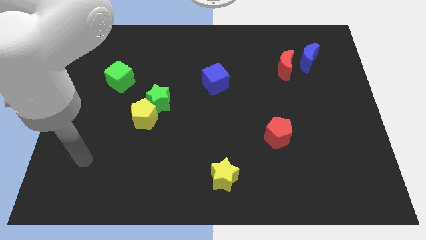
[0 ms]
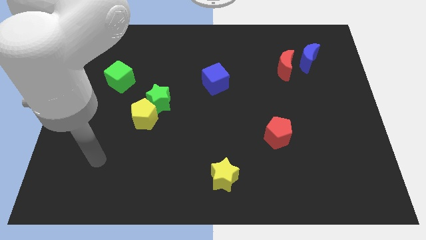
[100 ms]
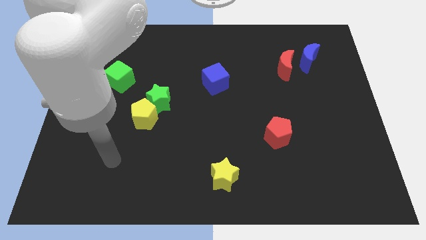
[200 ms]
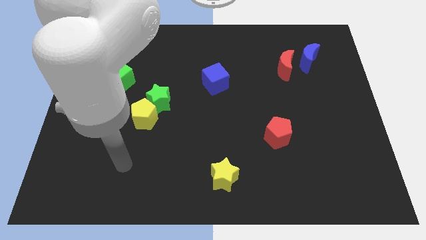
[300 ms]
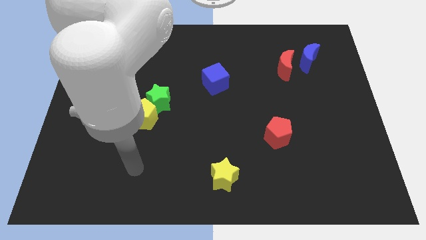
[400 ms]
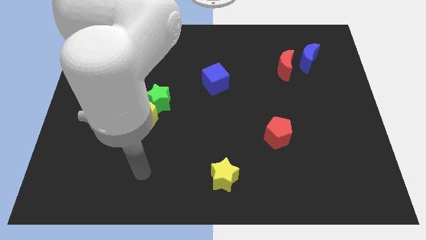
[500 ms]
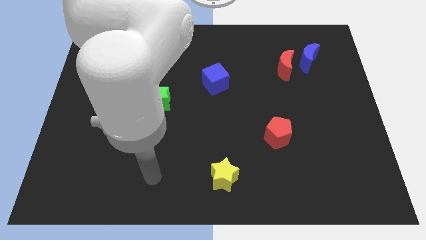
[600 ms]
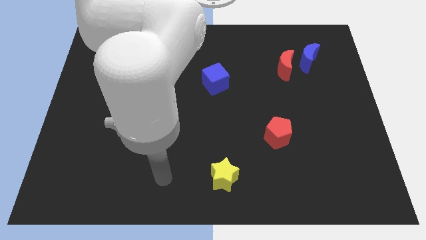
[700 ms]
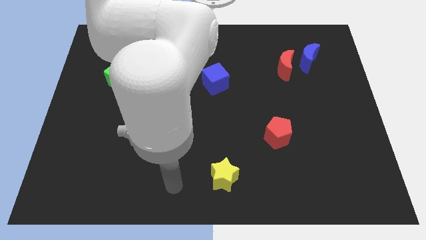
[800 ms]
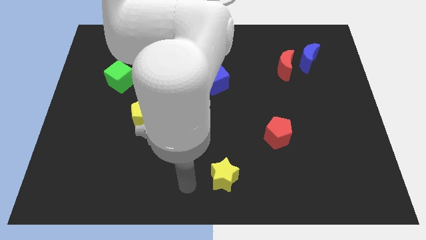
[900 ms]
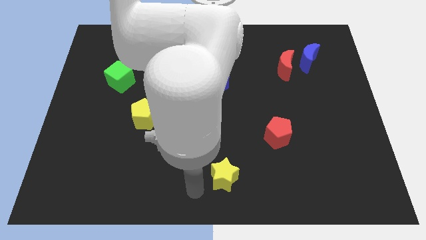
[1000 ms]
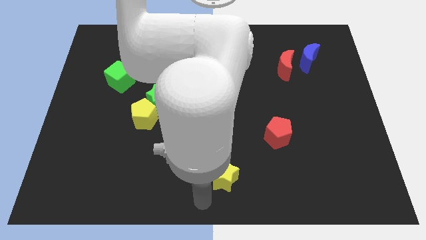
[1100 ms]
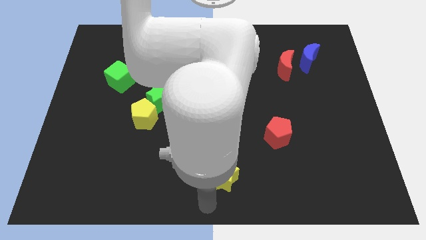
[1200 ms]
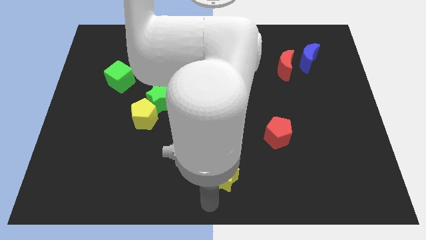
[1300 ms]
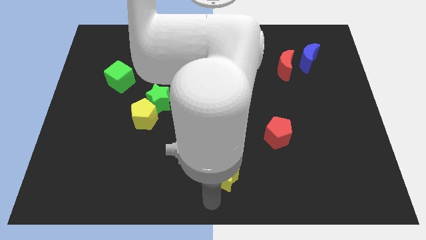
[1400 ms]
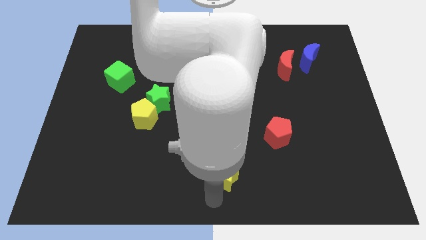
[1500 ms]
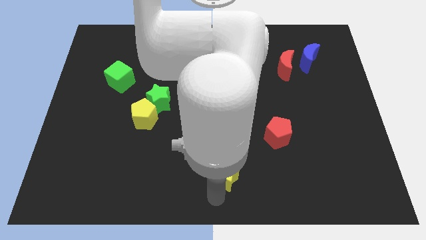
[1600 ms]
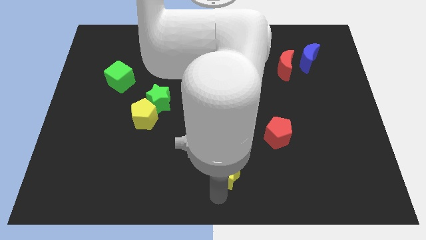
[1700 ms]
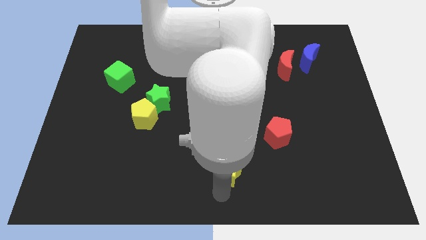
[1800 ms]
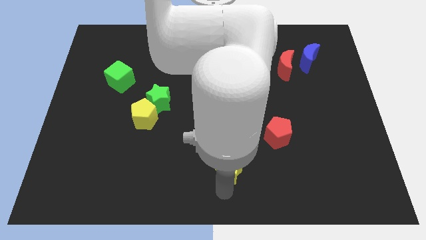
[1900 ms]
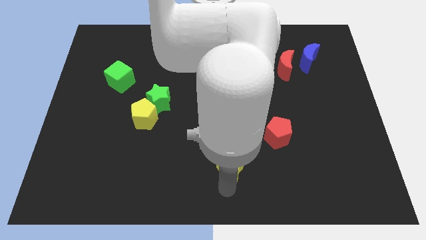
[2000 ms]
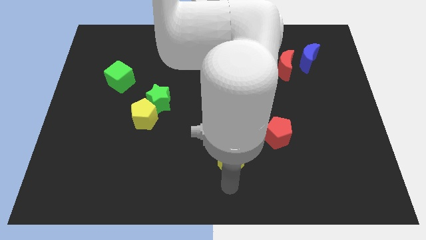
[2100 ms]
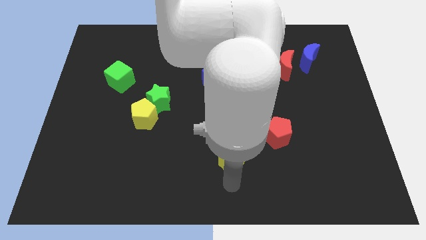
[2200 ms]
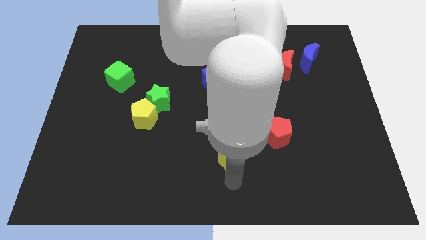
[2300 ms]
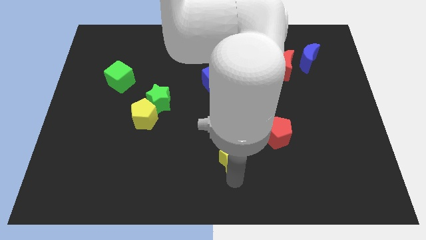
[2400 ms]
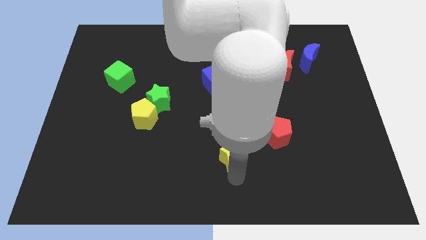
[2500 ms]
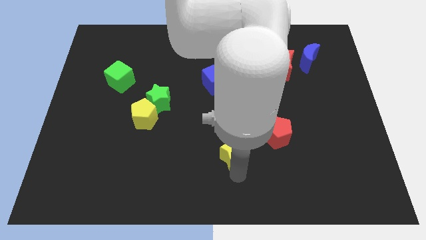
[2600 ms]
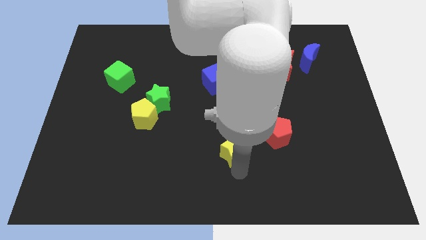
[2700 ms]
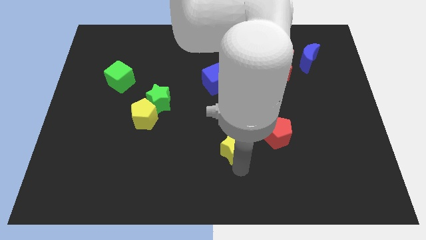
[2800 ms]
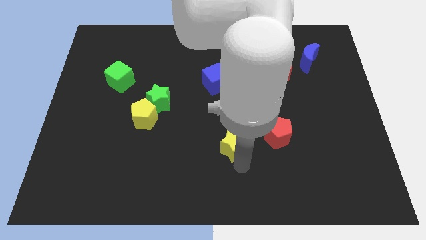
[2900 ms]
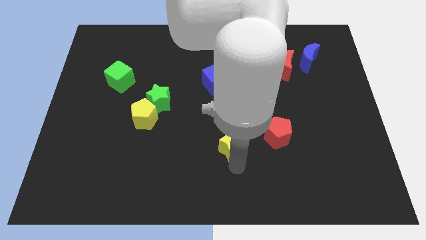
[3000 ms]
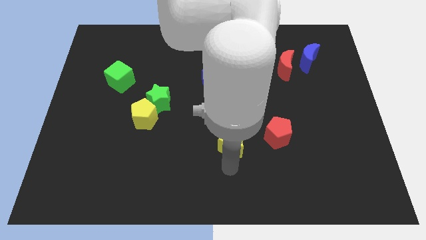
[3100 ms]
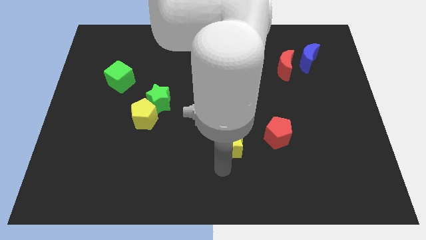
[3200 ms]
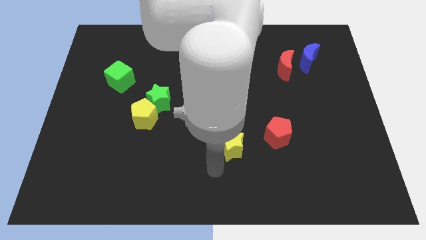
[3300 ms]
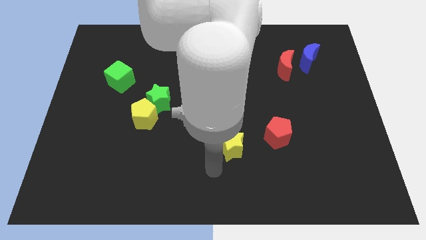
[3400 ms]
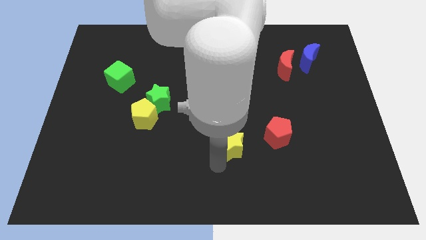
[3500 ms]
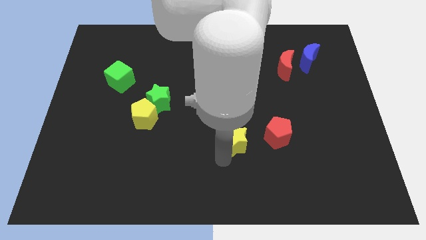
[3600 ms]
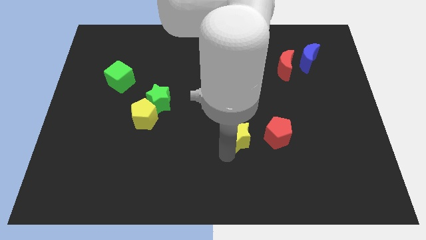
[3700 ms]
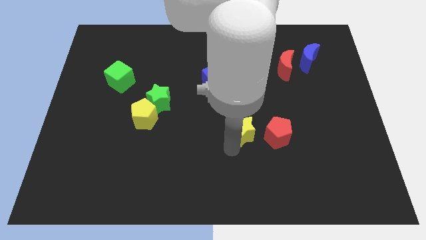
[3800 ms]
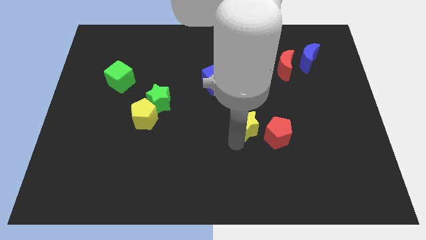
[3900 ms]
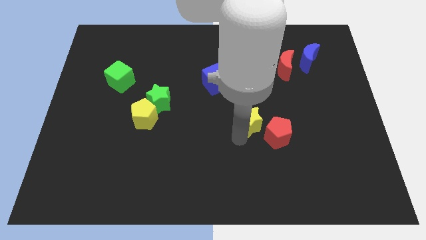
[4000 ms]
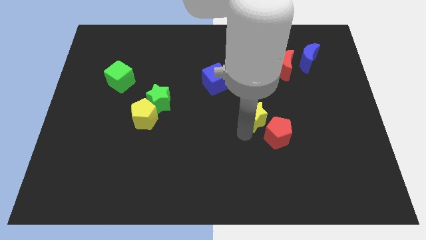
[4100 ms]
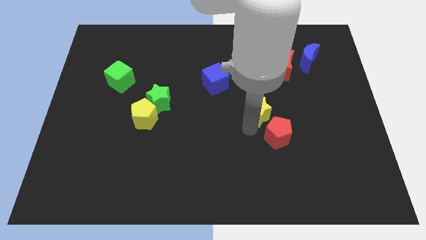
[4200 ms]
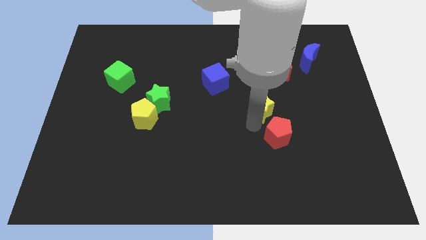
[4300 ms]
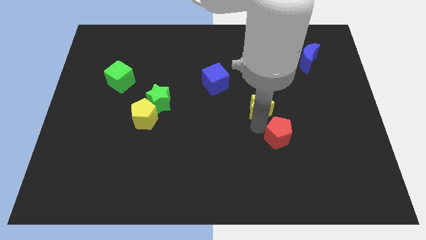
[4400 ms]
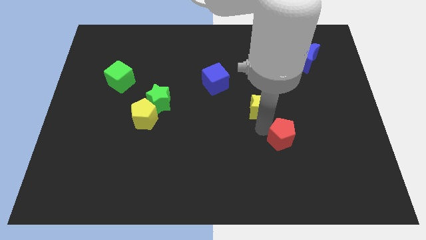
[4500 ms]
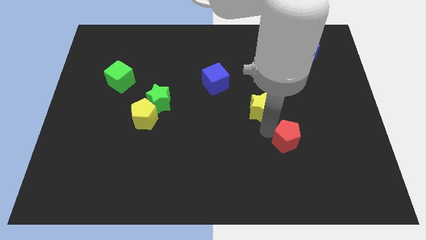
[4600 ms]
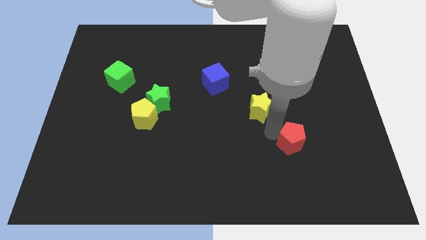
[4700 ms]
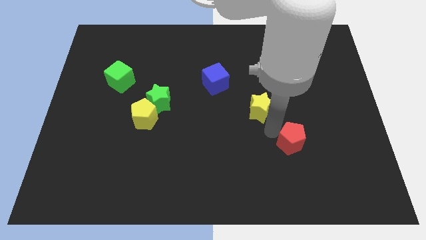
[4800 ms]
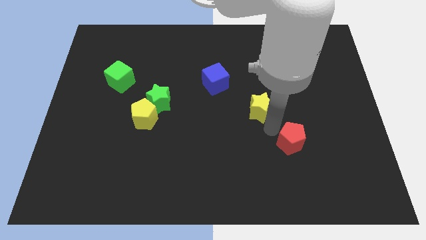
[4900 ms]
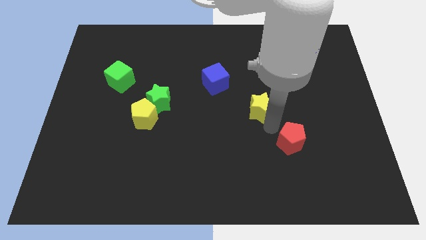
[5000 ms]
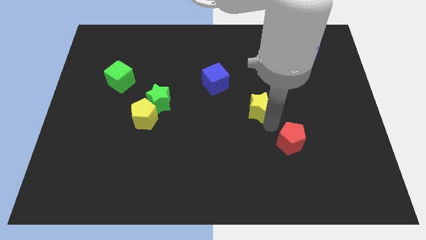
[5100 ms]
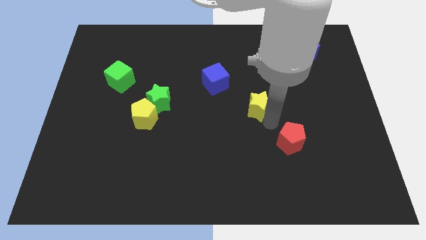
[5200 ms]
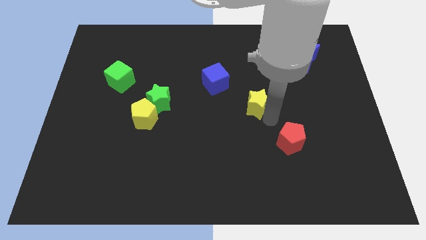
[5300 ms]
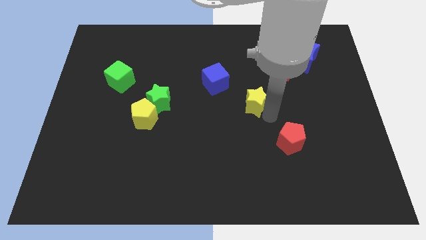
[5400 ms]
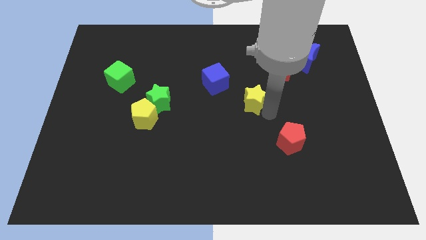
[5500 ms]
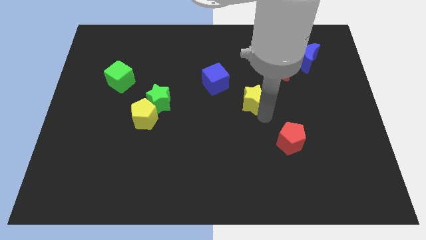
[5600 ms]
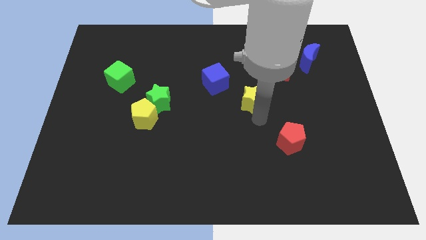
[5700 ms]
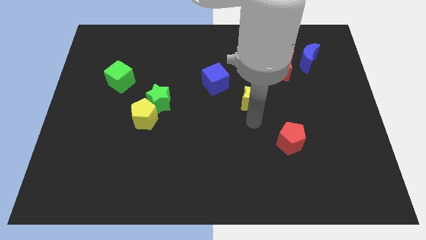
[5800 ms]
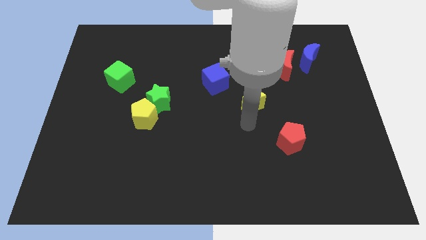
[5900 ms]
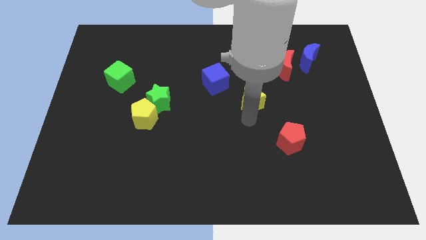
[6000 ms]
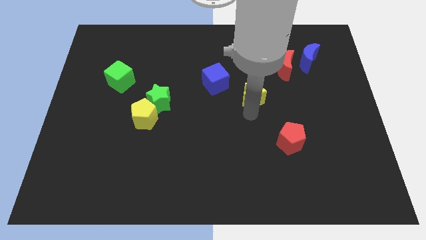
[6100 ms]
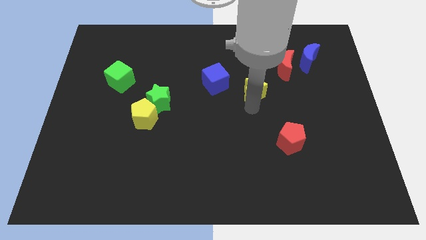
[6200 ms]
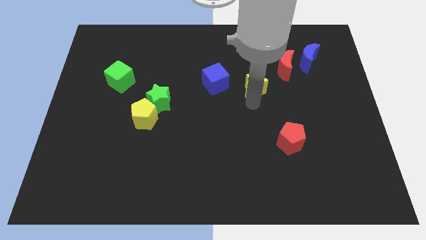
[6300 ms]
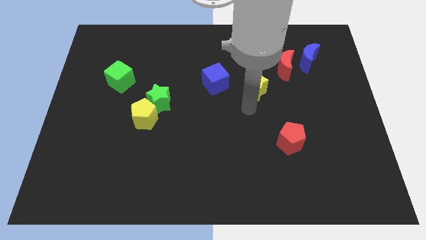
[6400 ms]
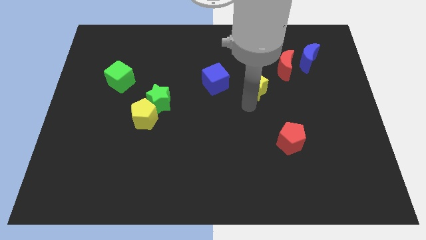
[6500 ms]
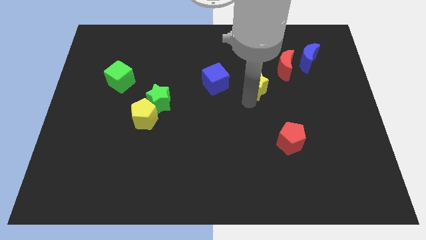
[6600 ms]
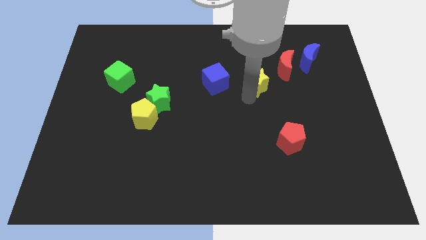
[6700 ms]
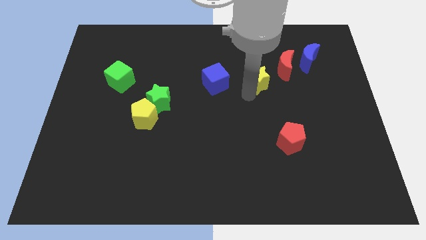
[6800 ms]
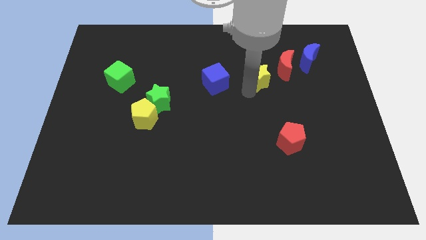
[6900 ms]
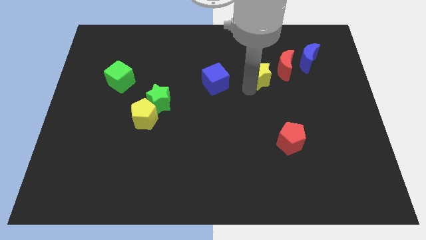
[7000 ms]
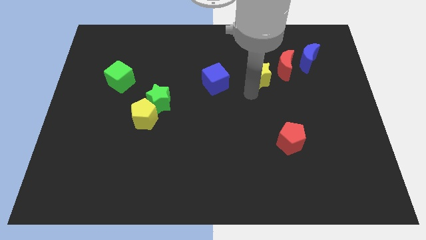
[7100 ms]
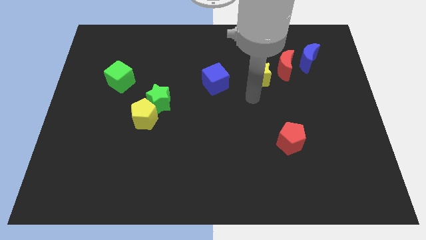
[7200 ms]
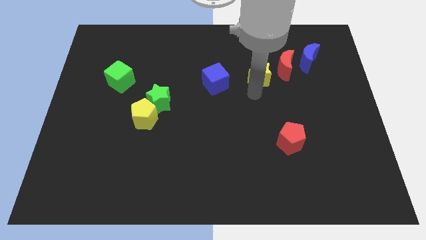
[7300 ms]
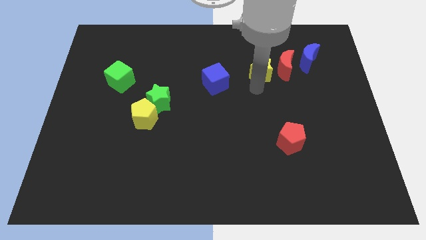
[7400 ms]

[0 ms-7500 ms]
move the yellow star to the left side of the blue moon

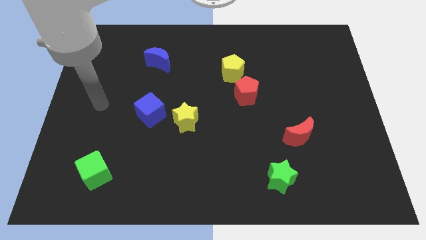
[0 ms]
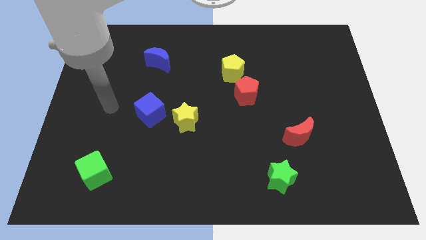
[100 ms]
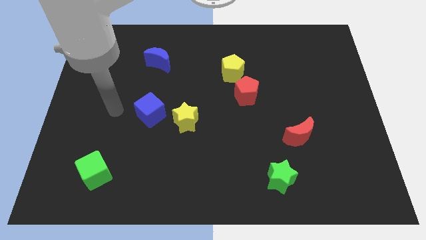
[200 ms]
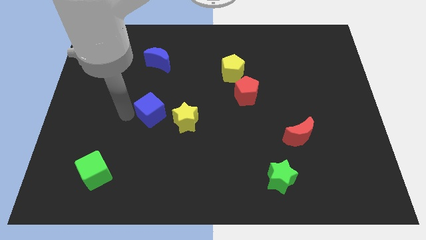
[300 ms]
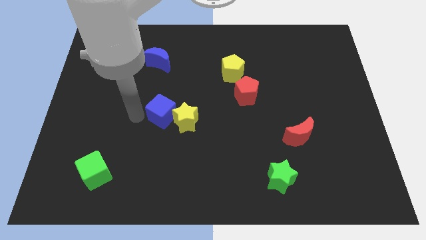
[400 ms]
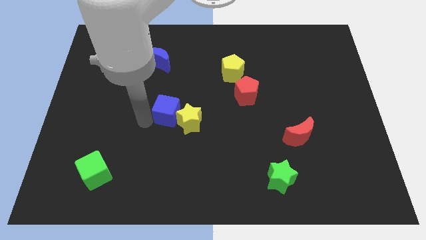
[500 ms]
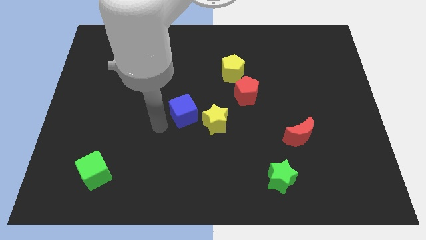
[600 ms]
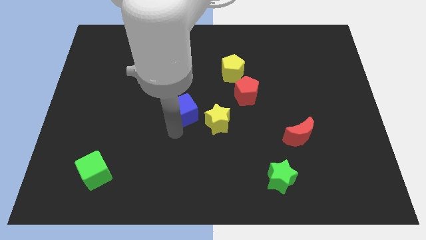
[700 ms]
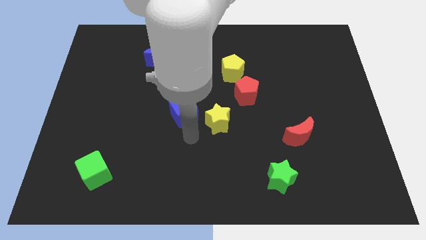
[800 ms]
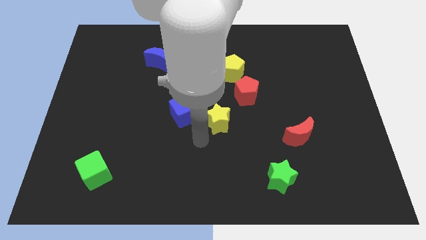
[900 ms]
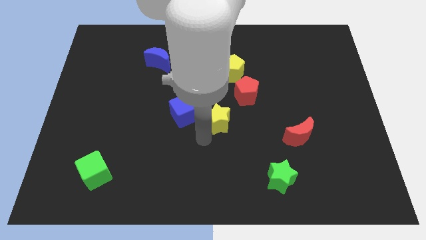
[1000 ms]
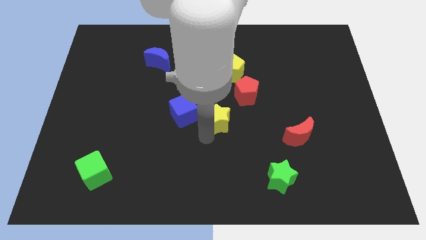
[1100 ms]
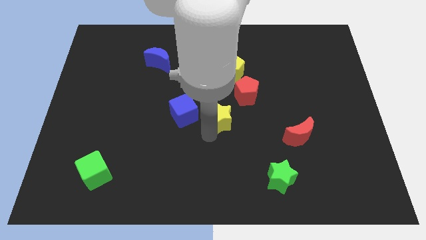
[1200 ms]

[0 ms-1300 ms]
push the yellow star below the yellow pentagon
